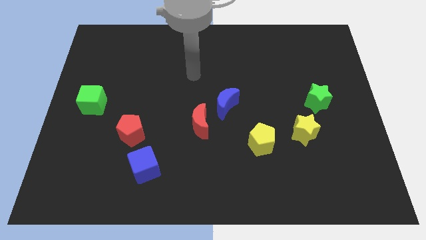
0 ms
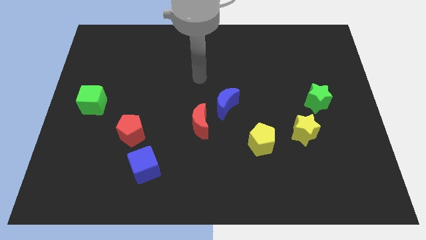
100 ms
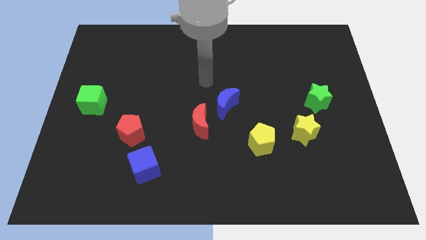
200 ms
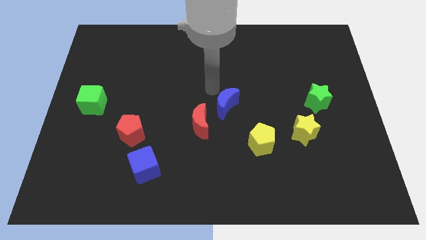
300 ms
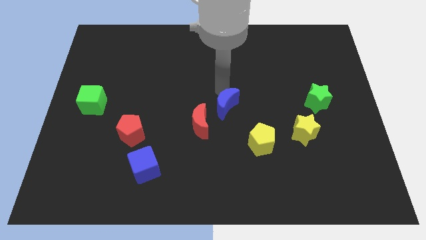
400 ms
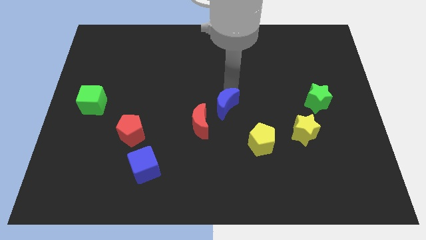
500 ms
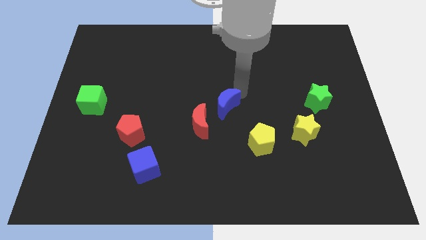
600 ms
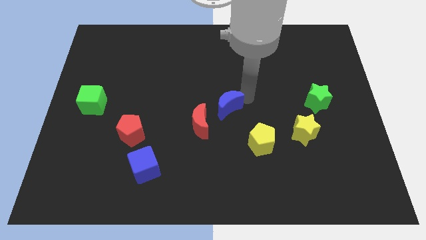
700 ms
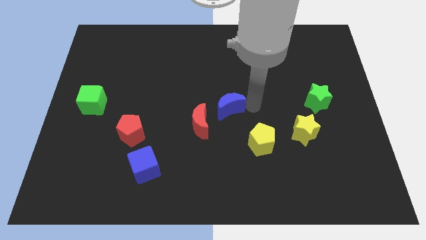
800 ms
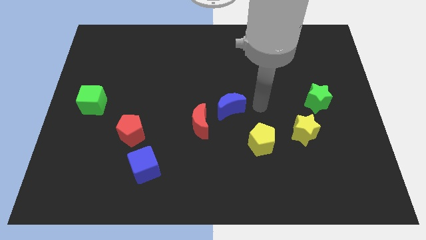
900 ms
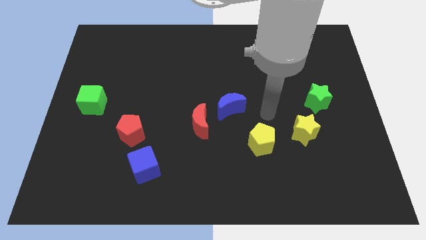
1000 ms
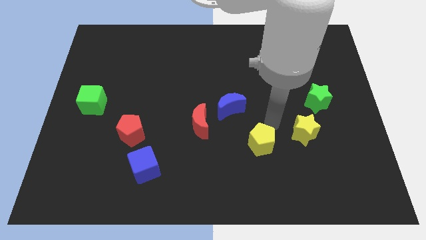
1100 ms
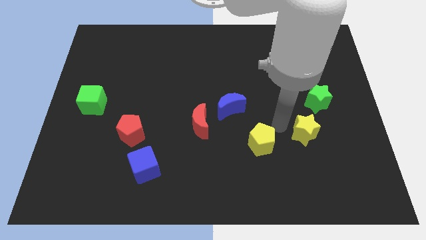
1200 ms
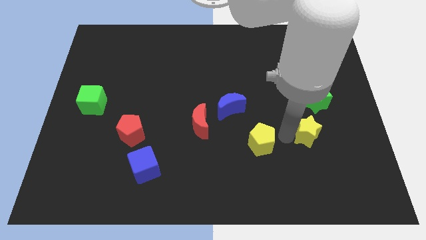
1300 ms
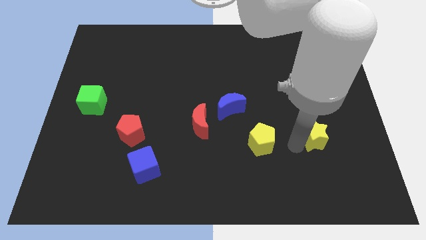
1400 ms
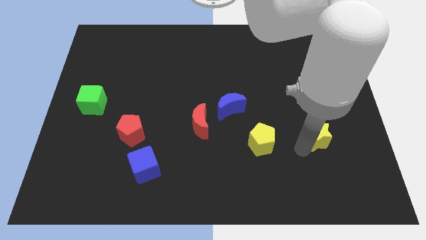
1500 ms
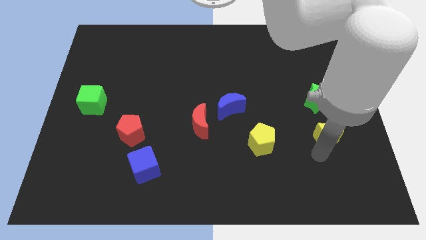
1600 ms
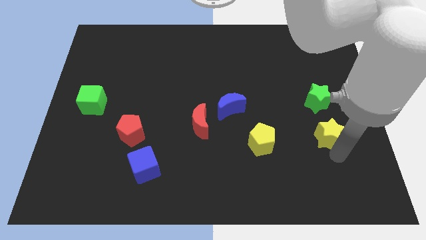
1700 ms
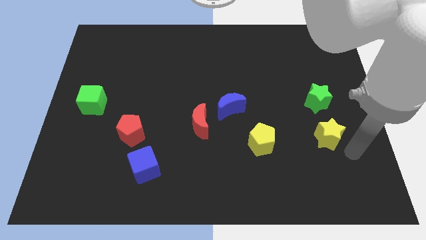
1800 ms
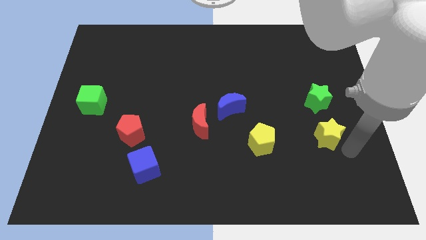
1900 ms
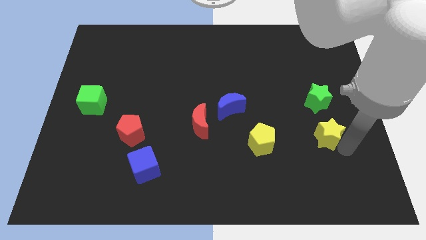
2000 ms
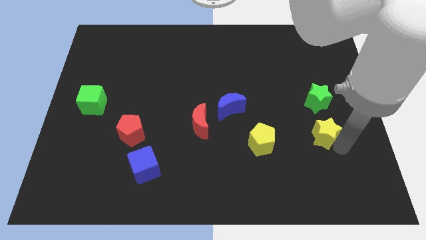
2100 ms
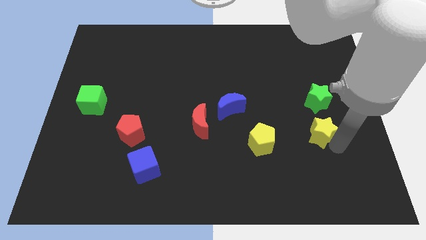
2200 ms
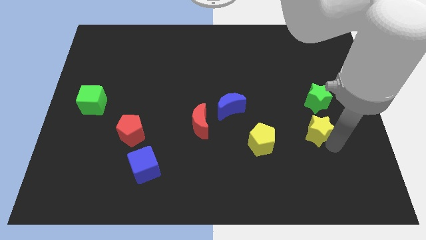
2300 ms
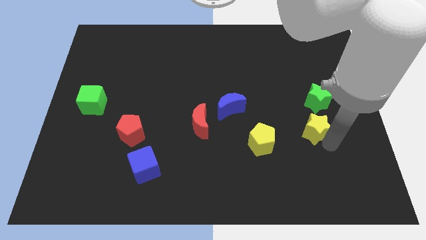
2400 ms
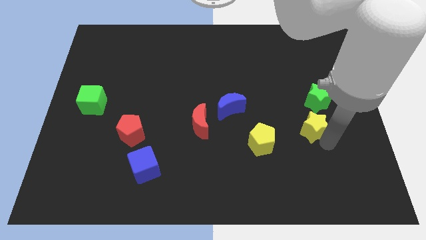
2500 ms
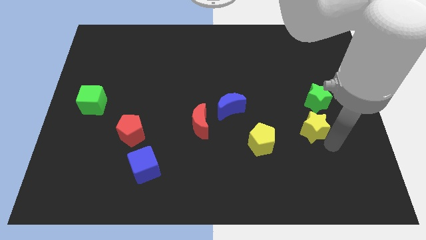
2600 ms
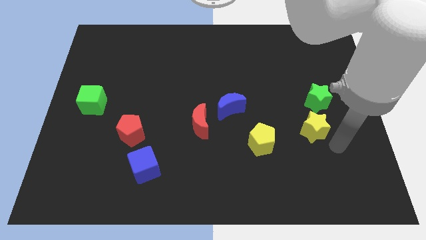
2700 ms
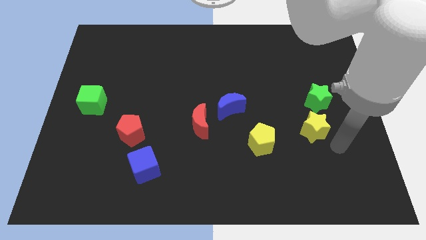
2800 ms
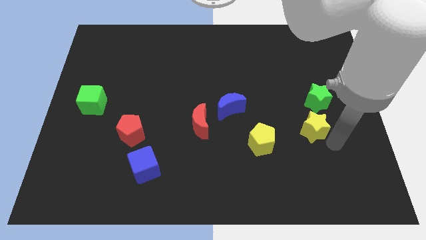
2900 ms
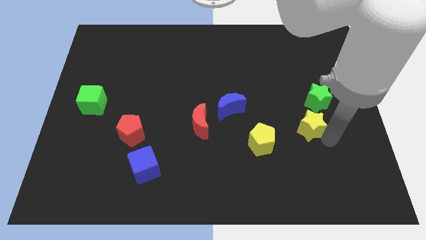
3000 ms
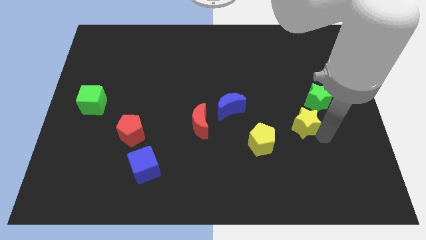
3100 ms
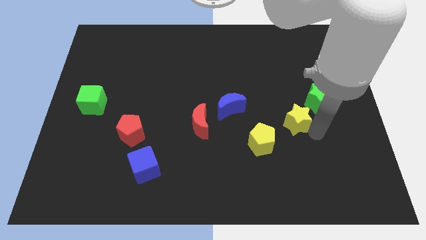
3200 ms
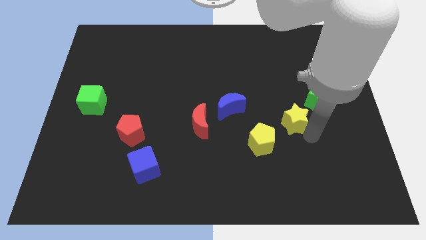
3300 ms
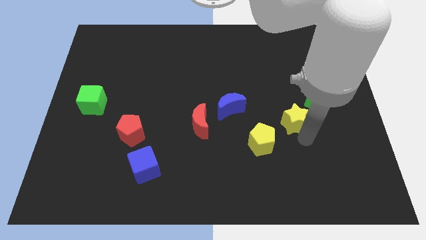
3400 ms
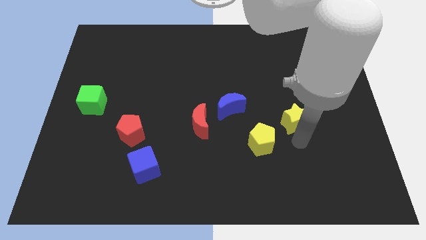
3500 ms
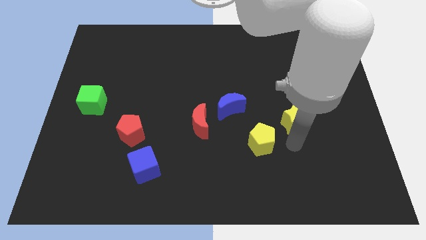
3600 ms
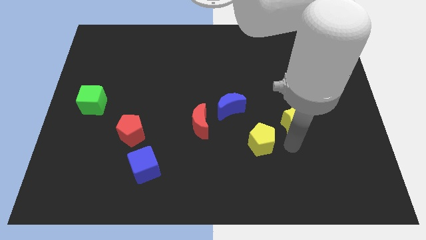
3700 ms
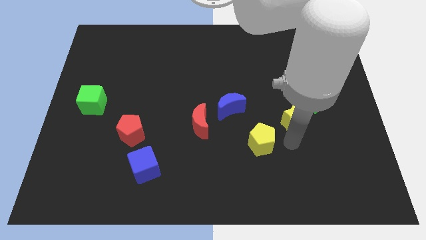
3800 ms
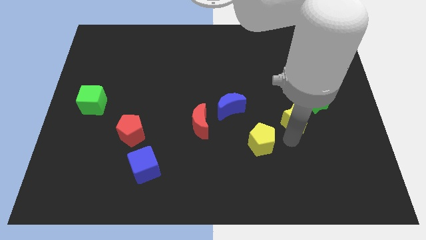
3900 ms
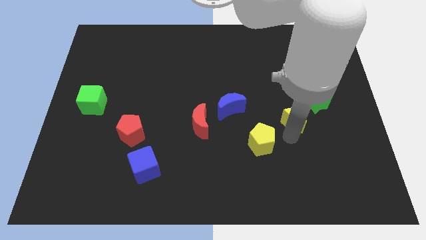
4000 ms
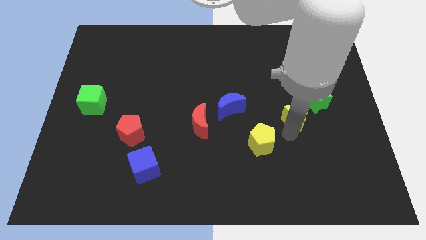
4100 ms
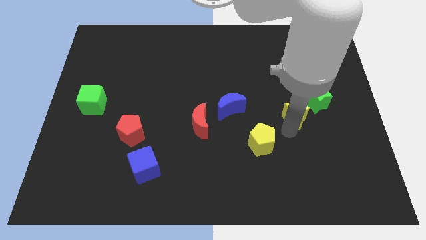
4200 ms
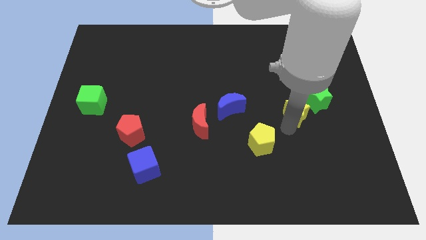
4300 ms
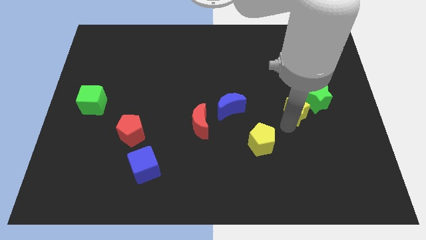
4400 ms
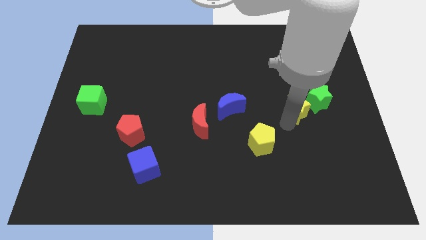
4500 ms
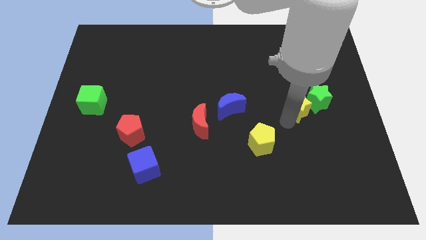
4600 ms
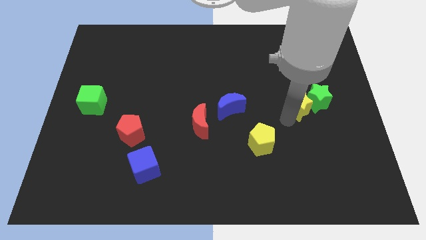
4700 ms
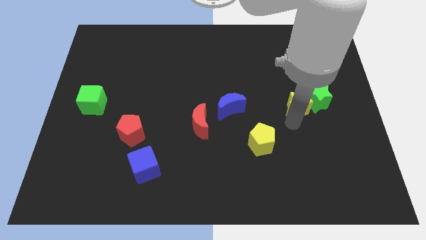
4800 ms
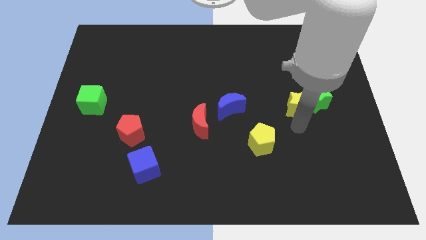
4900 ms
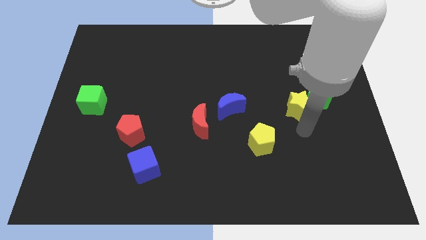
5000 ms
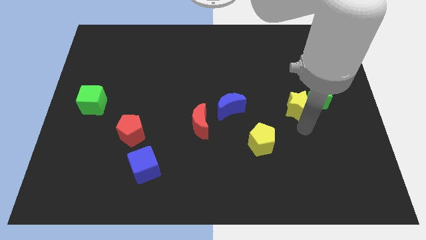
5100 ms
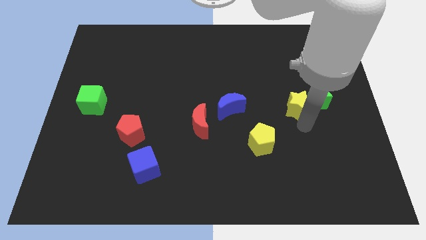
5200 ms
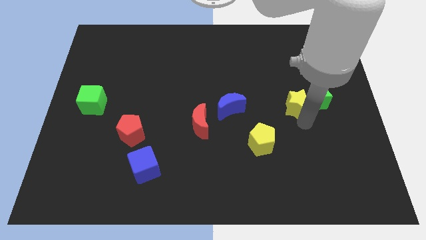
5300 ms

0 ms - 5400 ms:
slide the yellow star to the top left side of the green star

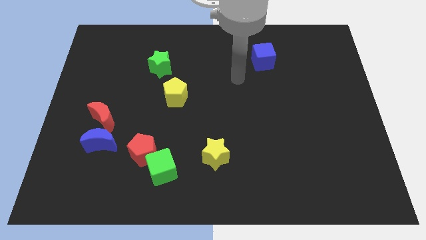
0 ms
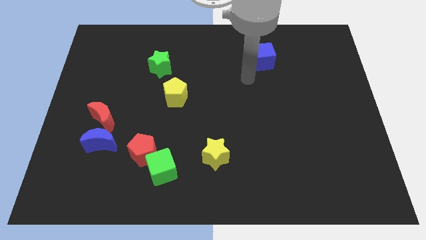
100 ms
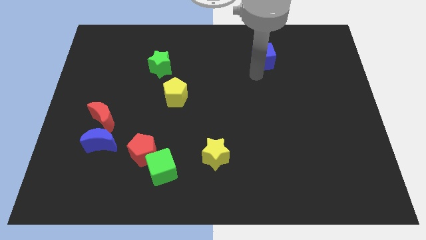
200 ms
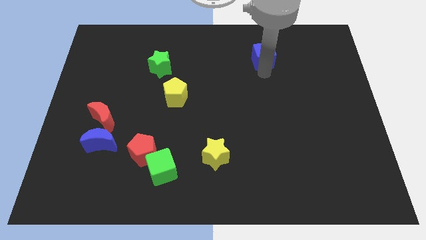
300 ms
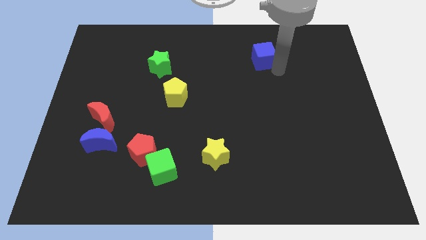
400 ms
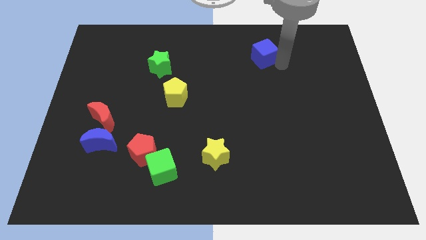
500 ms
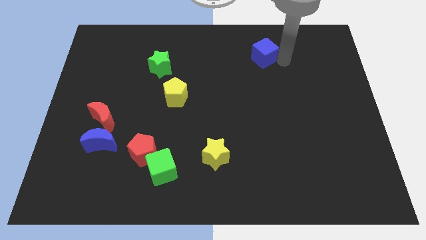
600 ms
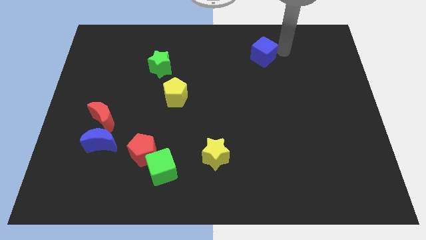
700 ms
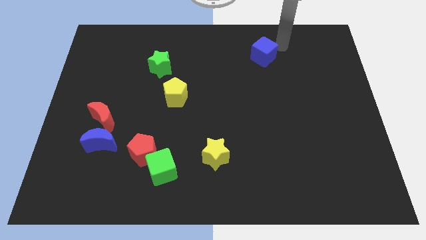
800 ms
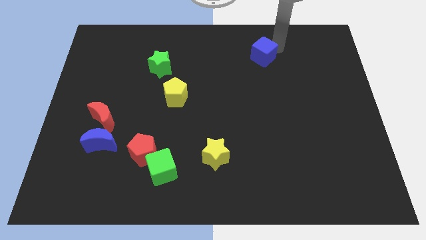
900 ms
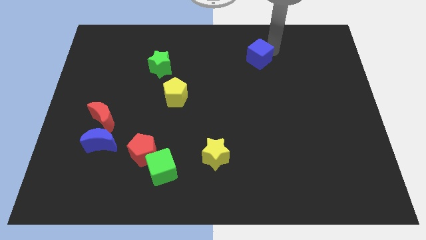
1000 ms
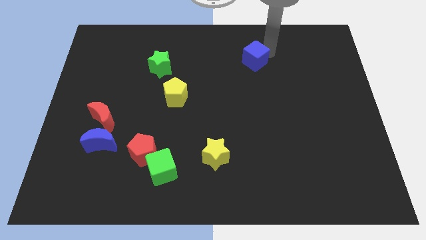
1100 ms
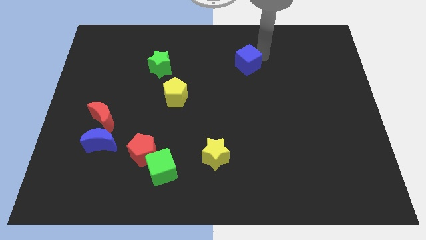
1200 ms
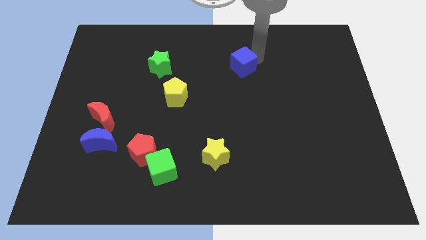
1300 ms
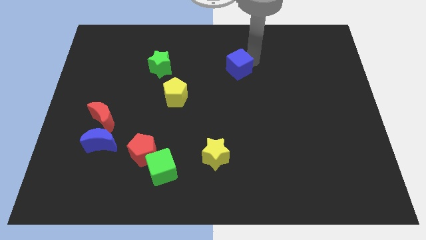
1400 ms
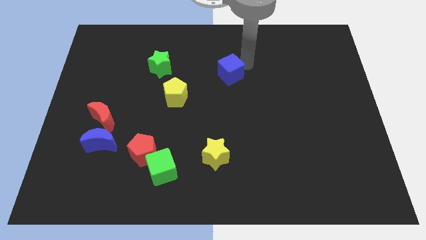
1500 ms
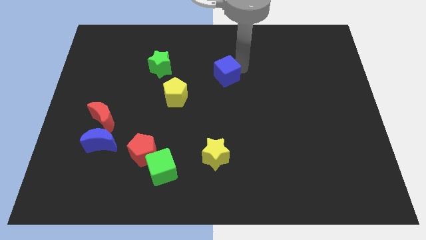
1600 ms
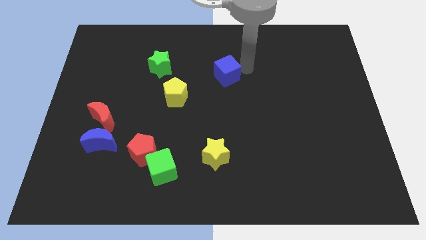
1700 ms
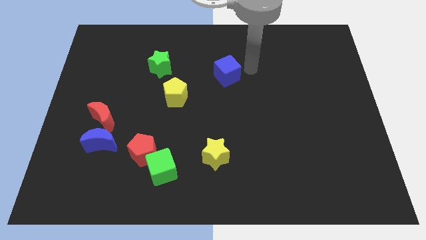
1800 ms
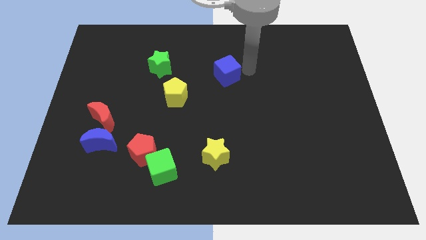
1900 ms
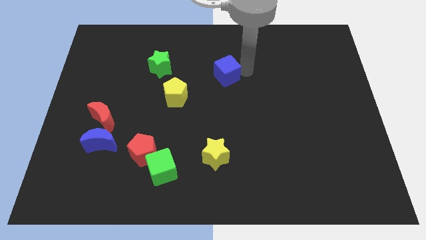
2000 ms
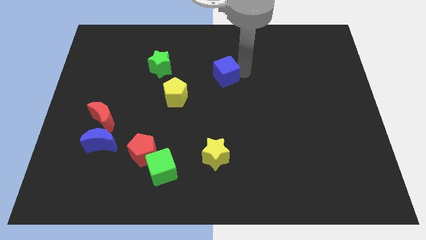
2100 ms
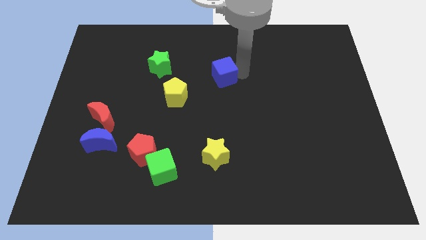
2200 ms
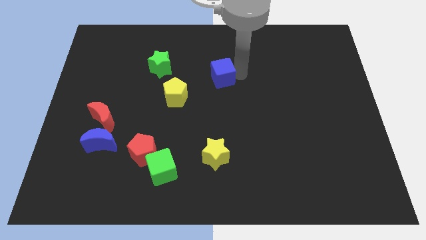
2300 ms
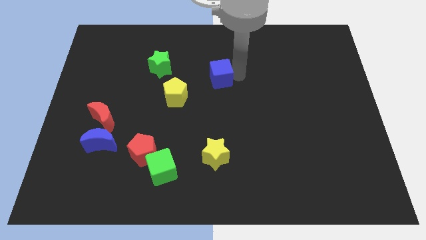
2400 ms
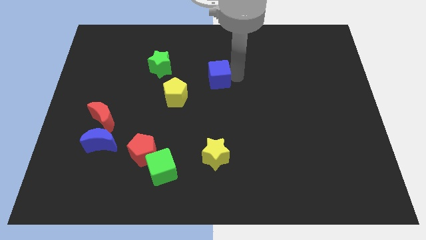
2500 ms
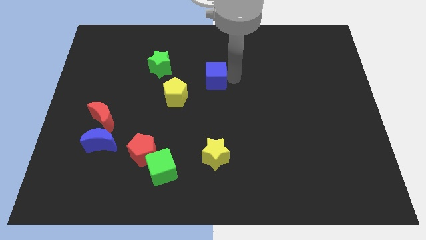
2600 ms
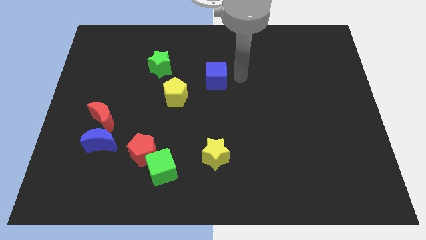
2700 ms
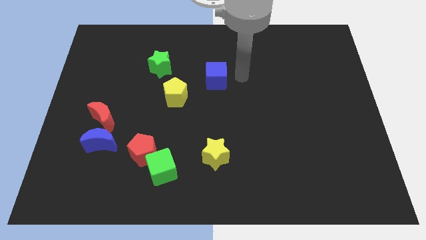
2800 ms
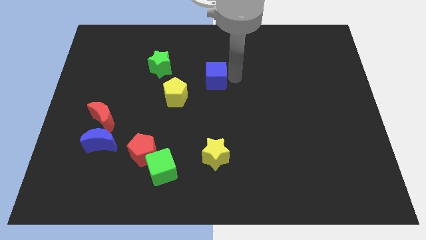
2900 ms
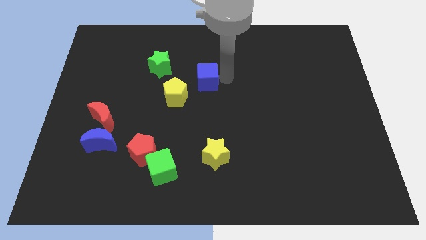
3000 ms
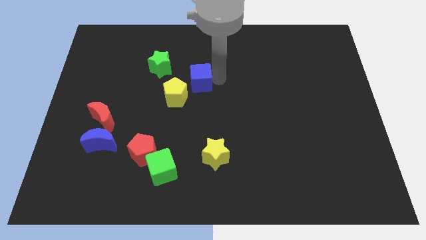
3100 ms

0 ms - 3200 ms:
slide the blue cube to the bottom right of the green star
